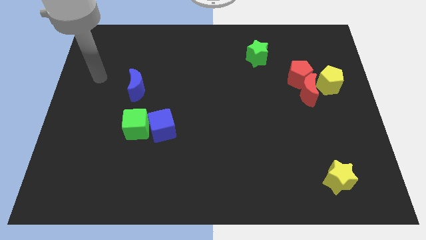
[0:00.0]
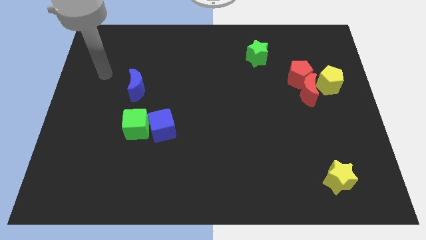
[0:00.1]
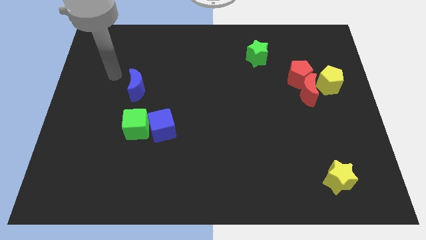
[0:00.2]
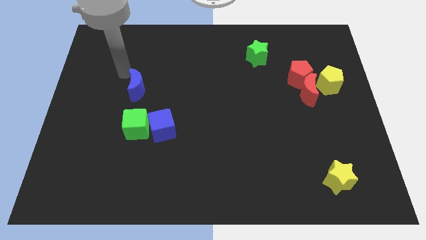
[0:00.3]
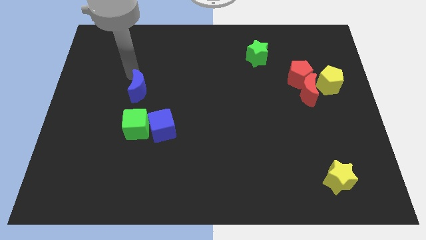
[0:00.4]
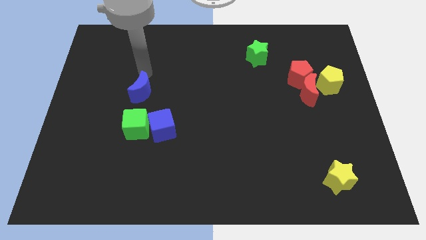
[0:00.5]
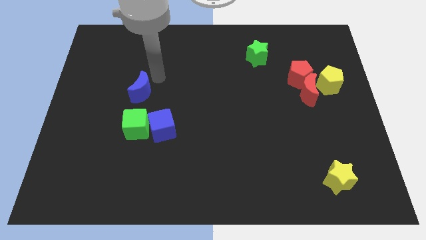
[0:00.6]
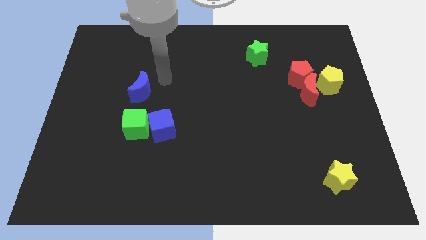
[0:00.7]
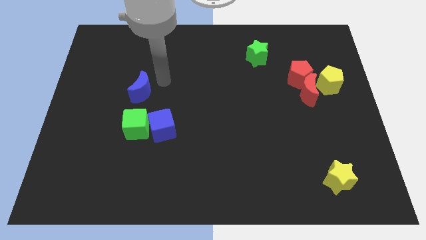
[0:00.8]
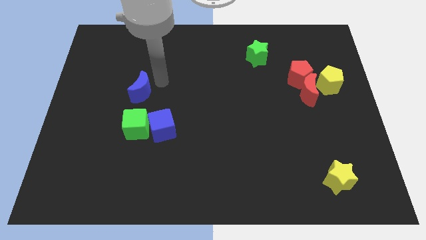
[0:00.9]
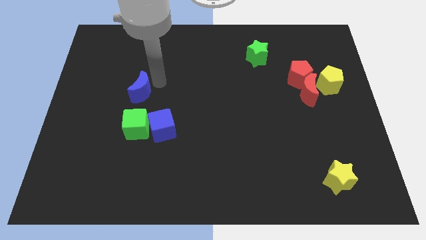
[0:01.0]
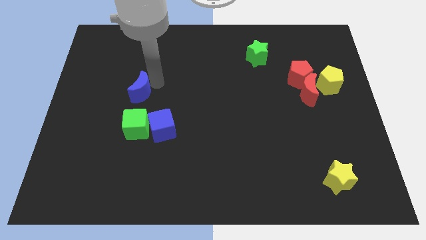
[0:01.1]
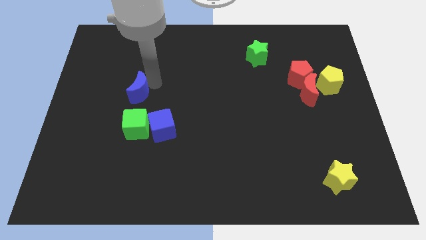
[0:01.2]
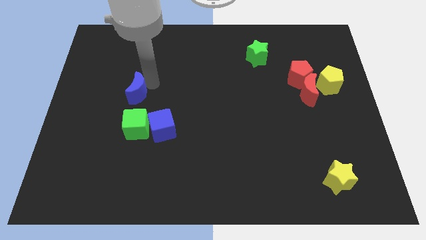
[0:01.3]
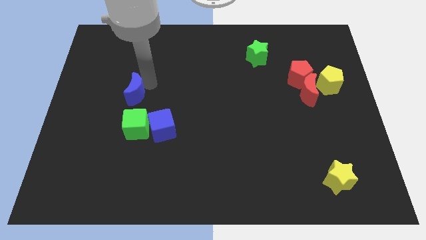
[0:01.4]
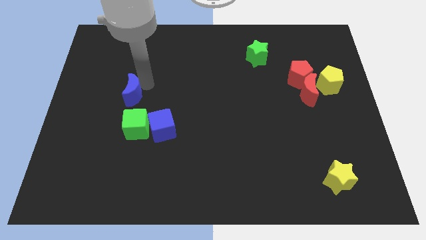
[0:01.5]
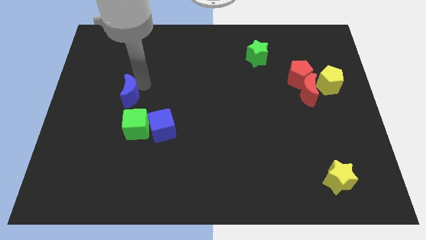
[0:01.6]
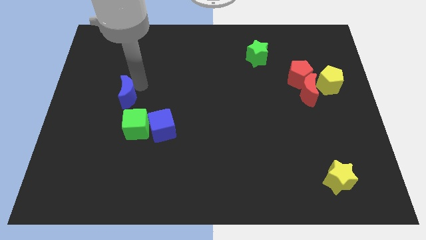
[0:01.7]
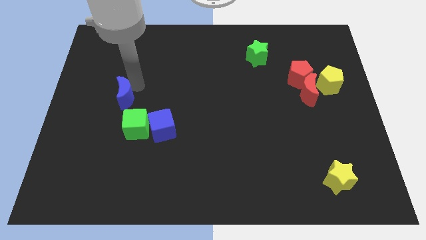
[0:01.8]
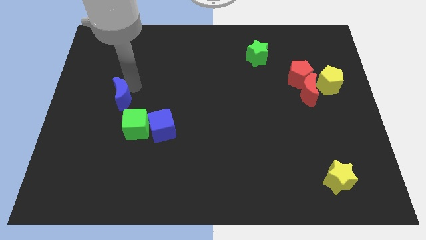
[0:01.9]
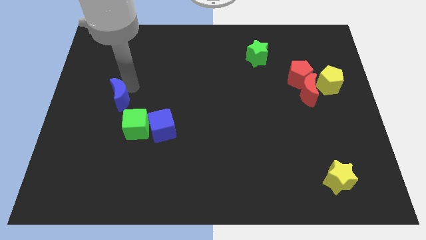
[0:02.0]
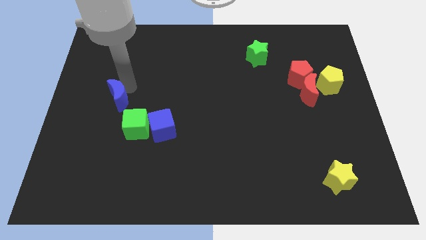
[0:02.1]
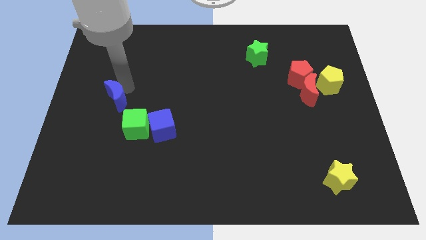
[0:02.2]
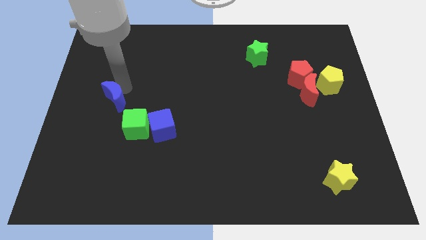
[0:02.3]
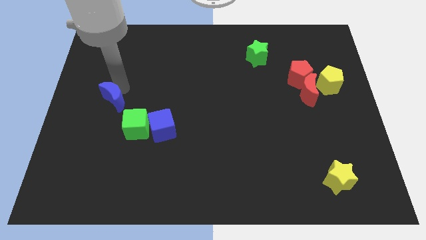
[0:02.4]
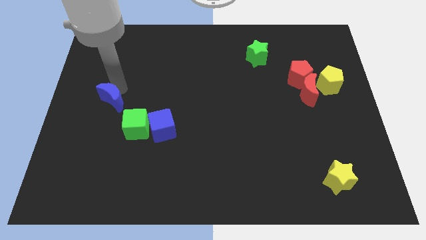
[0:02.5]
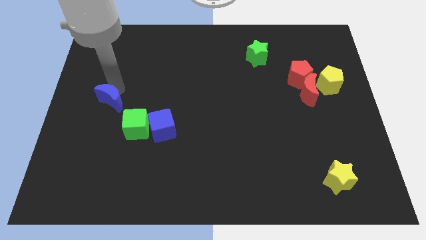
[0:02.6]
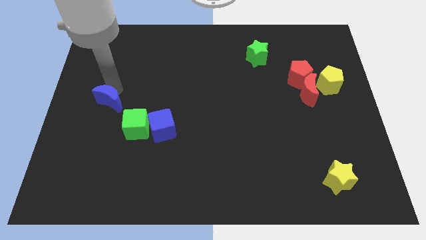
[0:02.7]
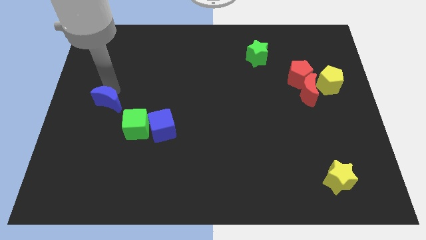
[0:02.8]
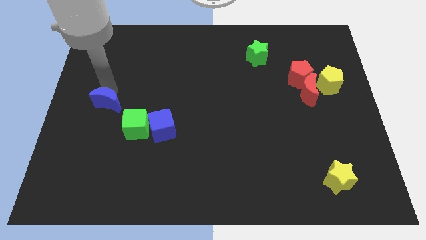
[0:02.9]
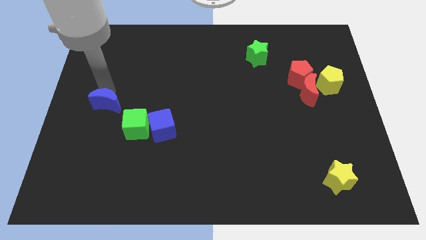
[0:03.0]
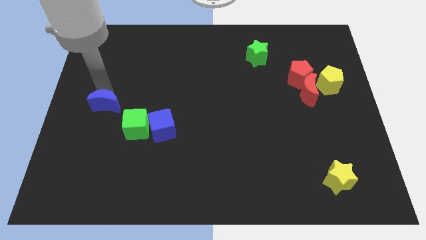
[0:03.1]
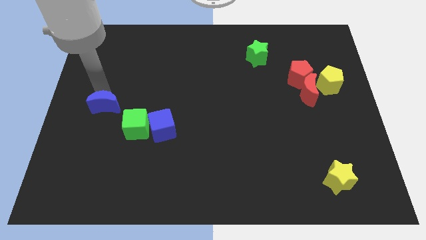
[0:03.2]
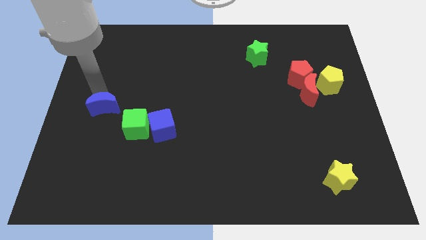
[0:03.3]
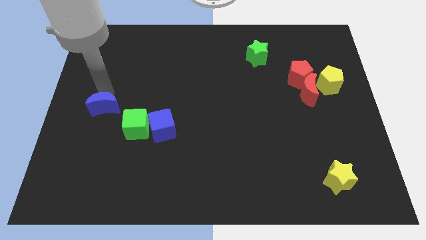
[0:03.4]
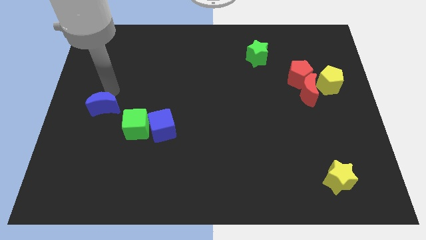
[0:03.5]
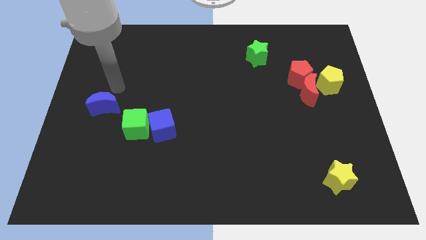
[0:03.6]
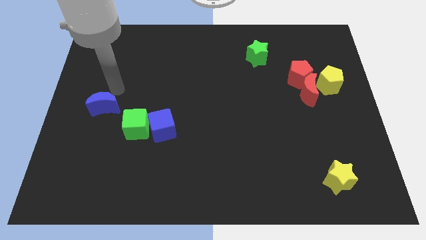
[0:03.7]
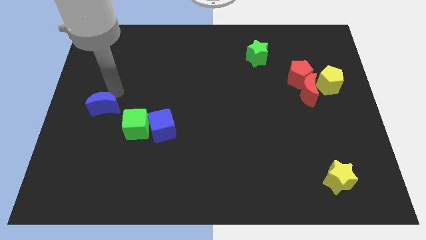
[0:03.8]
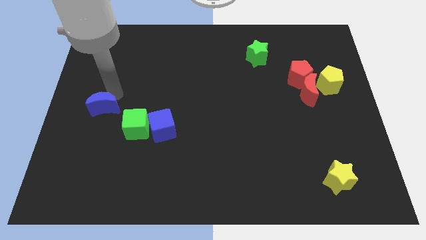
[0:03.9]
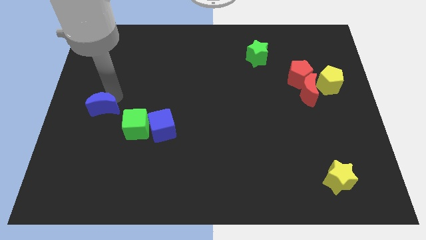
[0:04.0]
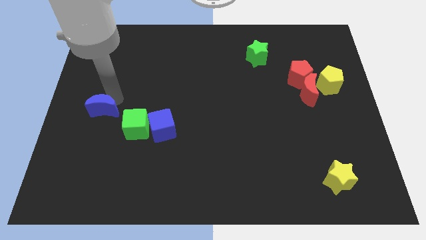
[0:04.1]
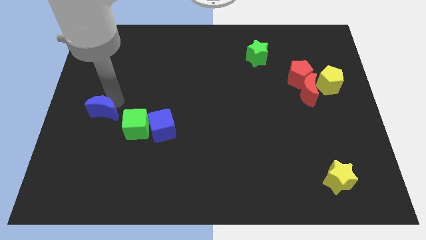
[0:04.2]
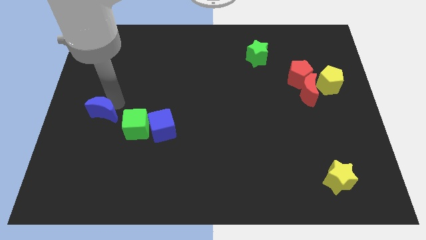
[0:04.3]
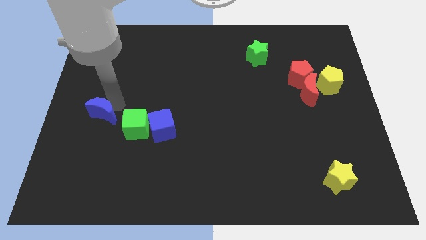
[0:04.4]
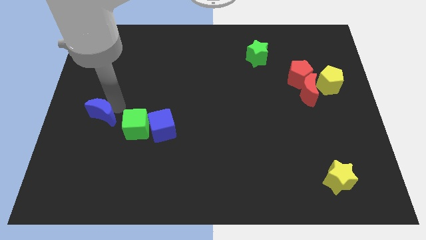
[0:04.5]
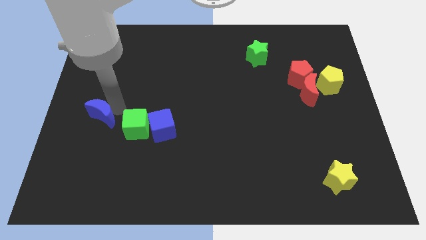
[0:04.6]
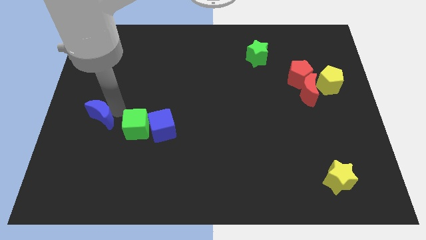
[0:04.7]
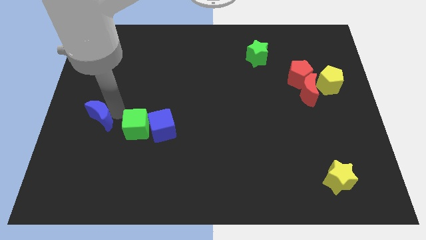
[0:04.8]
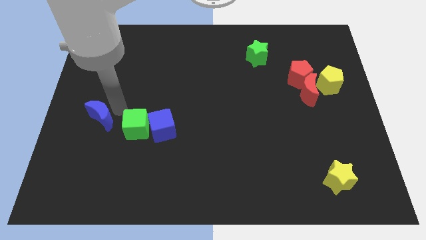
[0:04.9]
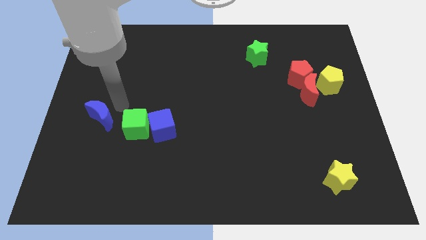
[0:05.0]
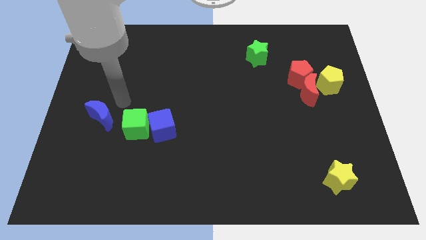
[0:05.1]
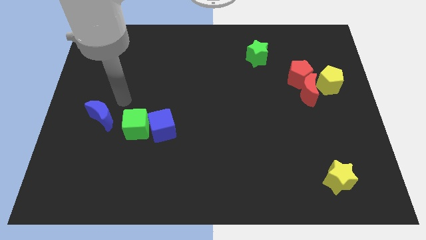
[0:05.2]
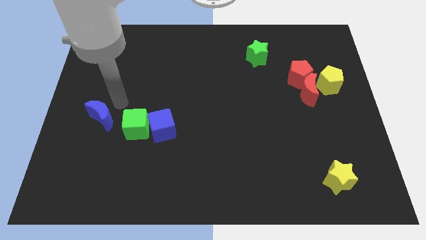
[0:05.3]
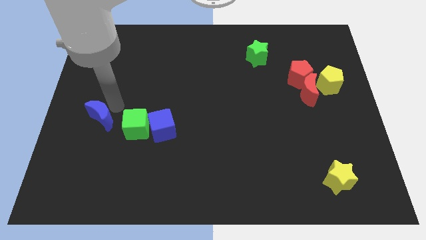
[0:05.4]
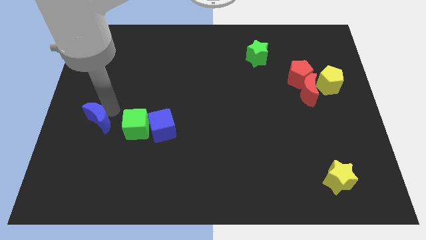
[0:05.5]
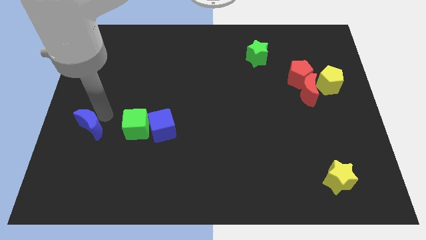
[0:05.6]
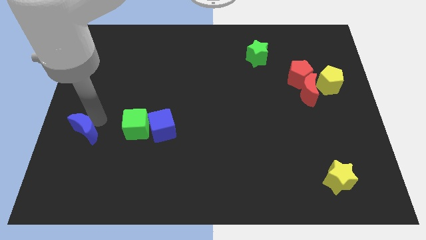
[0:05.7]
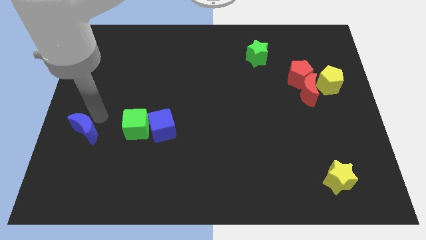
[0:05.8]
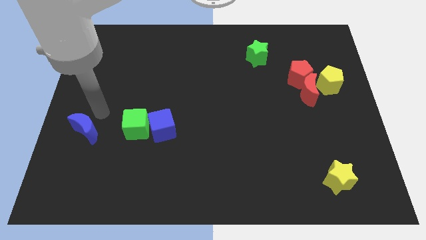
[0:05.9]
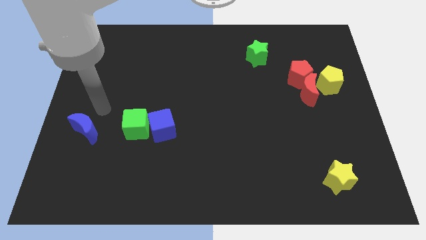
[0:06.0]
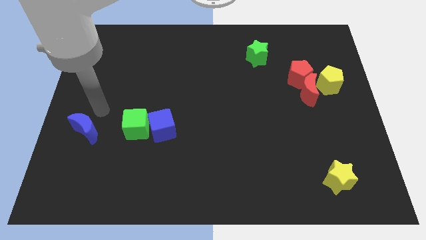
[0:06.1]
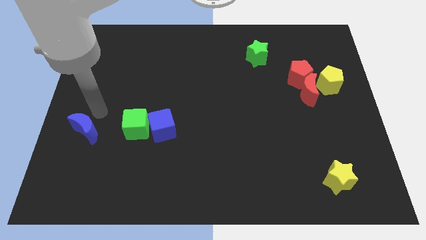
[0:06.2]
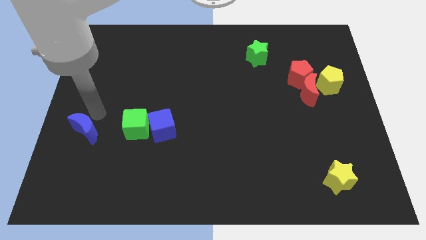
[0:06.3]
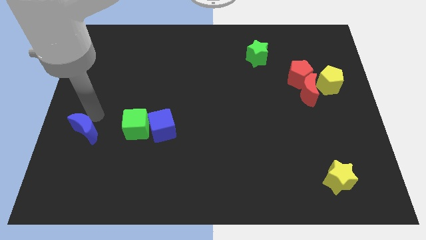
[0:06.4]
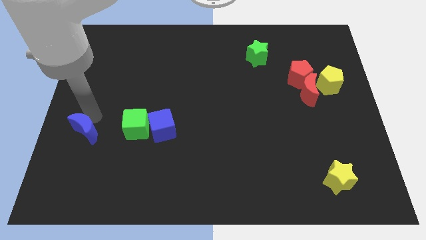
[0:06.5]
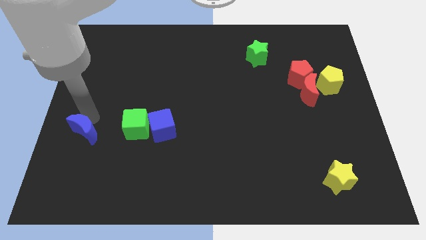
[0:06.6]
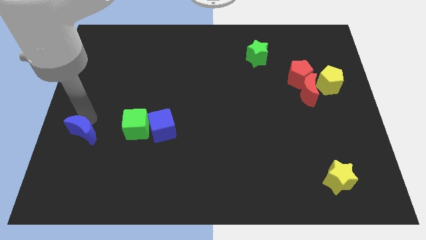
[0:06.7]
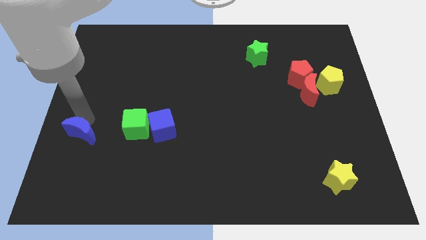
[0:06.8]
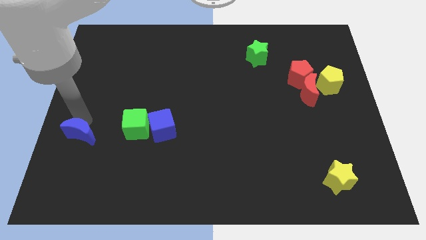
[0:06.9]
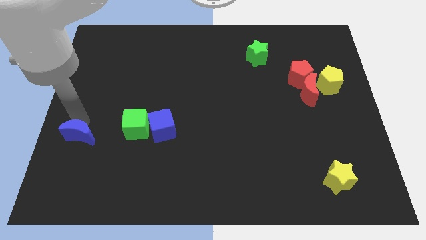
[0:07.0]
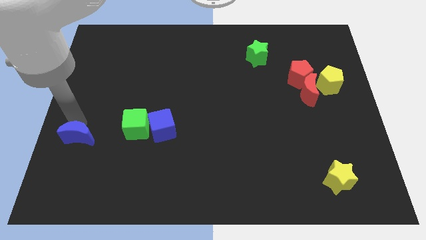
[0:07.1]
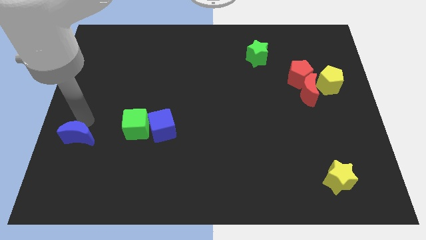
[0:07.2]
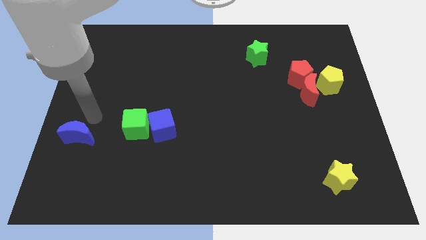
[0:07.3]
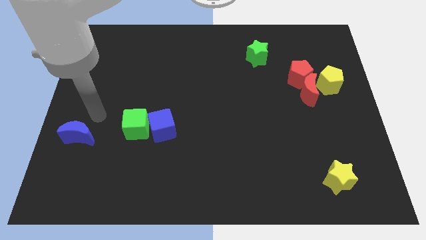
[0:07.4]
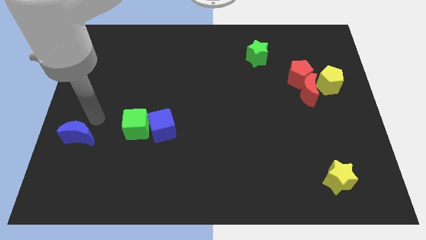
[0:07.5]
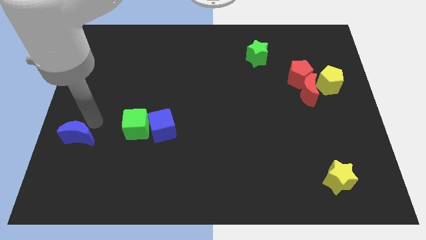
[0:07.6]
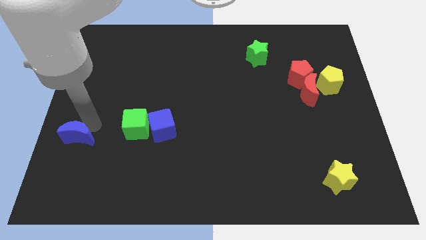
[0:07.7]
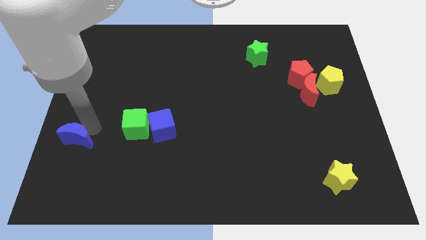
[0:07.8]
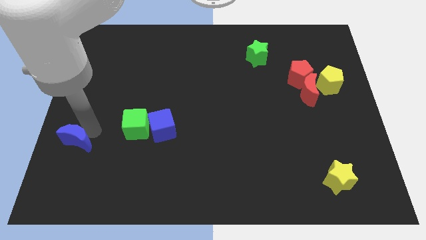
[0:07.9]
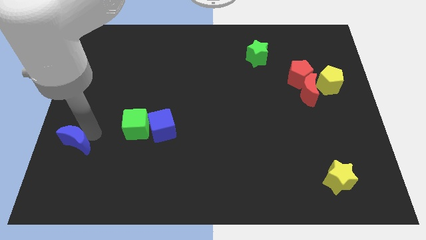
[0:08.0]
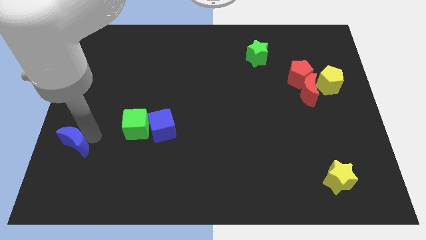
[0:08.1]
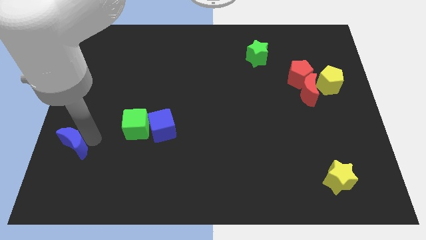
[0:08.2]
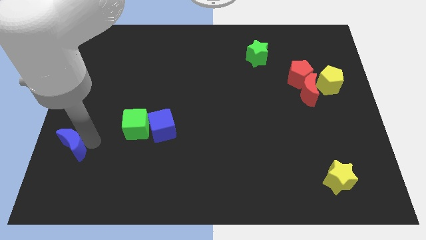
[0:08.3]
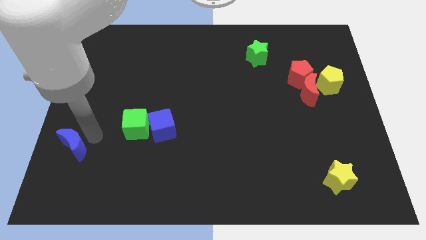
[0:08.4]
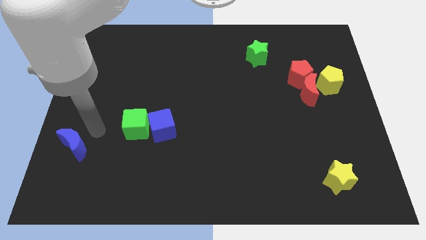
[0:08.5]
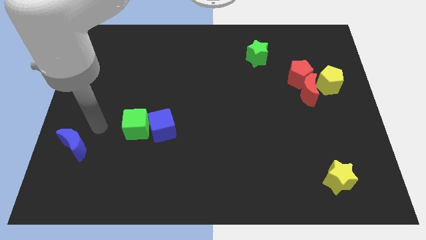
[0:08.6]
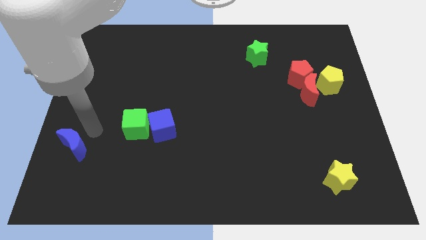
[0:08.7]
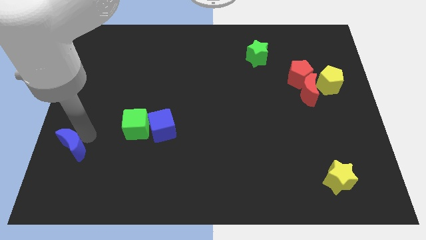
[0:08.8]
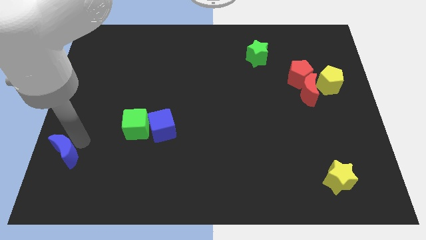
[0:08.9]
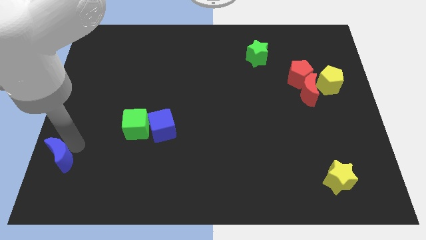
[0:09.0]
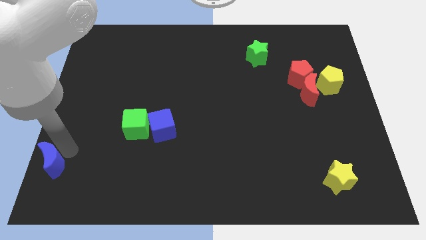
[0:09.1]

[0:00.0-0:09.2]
push the blue moon to the bottom left
